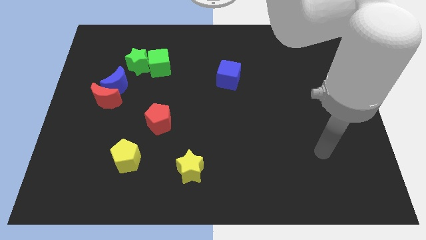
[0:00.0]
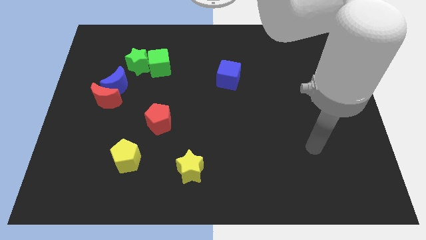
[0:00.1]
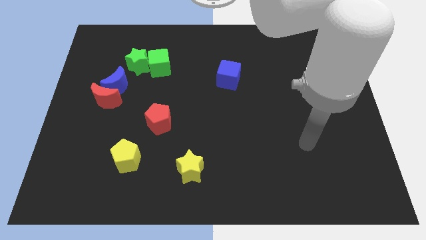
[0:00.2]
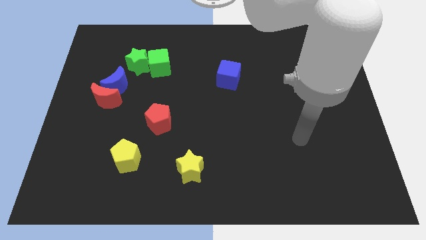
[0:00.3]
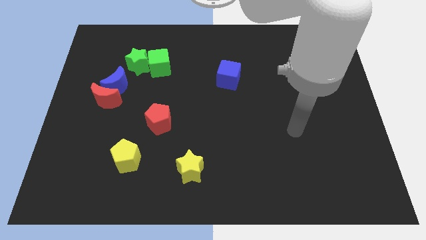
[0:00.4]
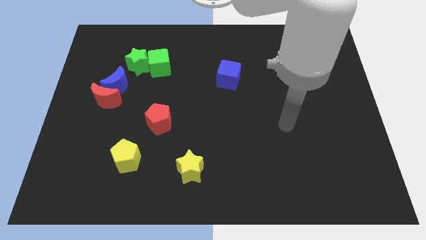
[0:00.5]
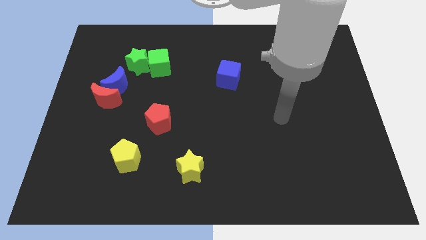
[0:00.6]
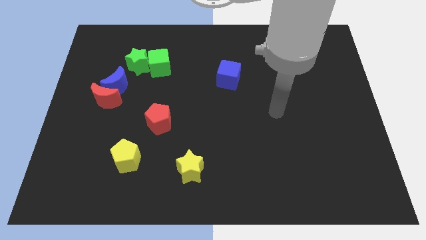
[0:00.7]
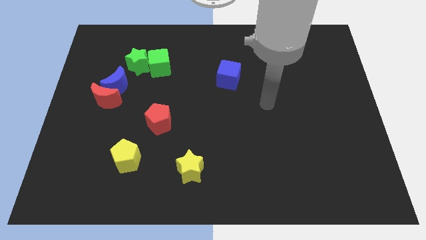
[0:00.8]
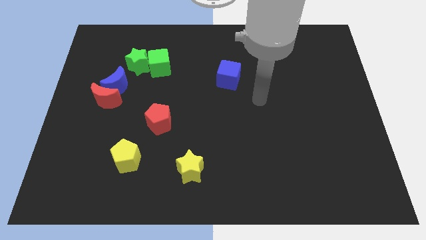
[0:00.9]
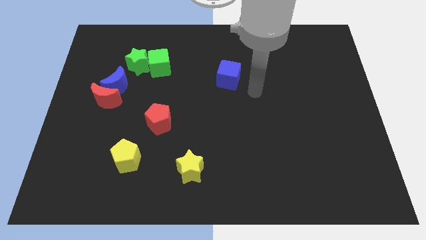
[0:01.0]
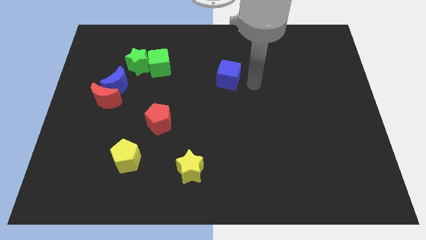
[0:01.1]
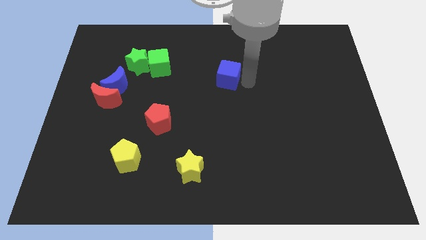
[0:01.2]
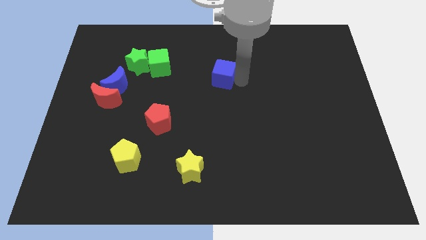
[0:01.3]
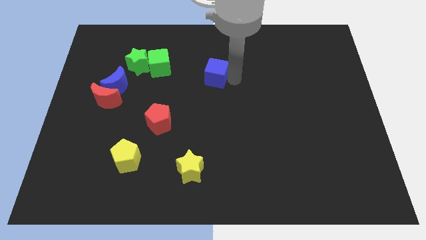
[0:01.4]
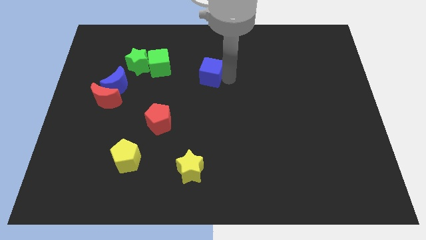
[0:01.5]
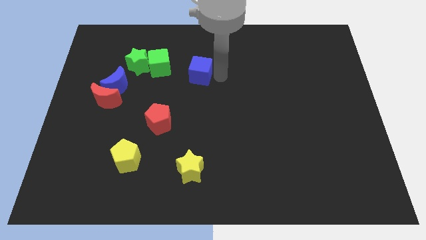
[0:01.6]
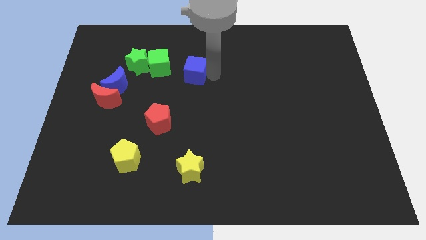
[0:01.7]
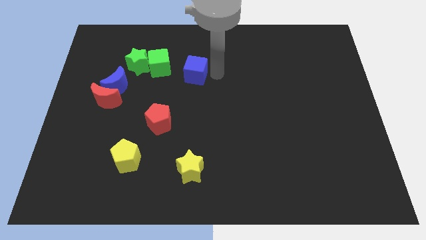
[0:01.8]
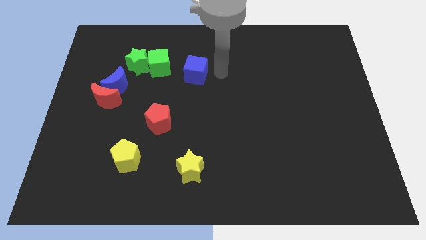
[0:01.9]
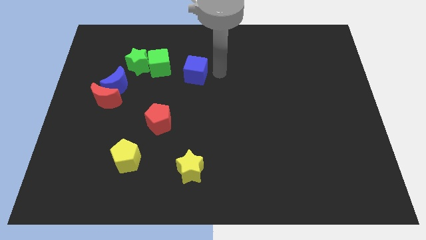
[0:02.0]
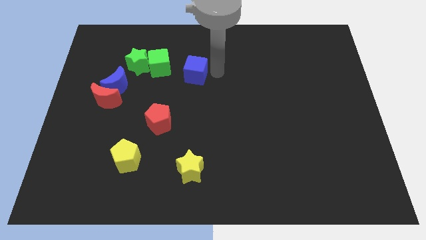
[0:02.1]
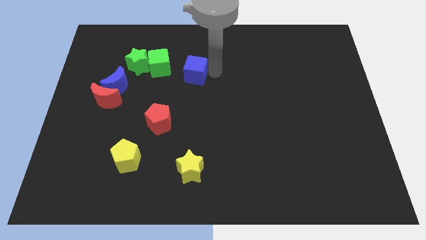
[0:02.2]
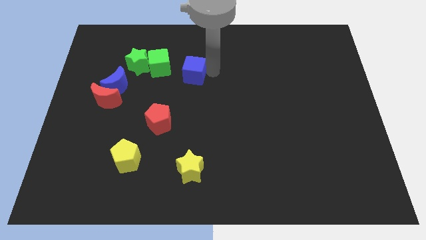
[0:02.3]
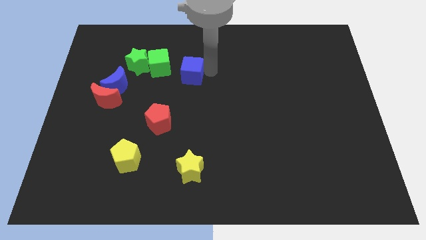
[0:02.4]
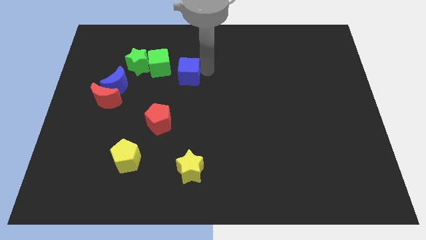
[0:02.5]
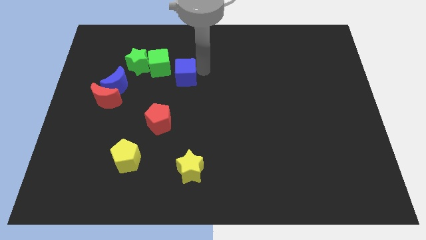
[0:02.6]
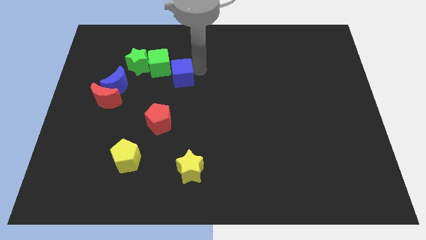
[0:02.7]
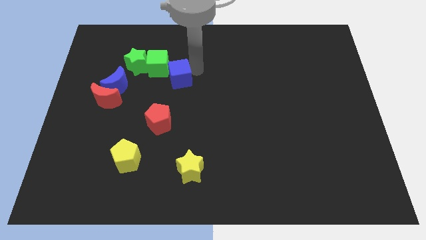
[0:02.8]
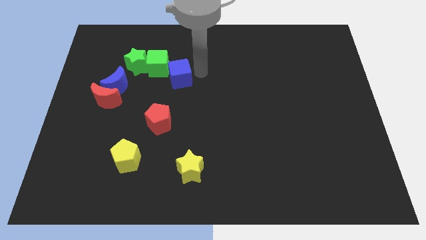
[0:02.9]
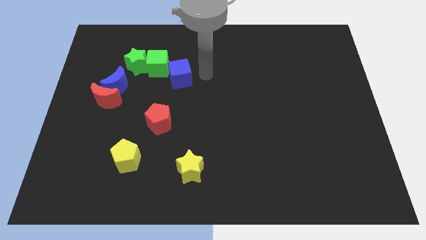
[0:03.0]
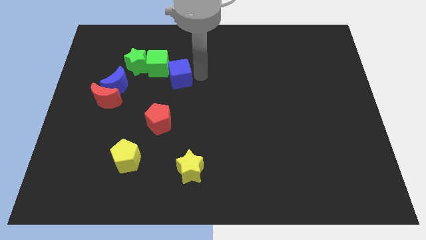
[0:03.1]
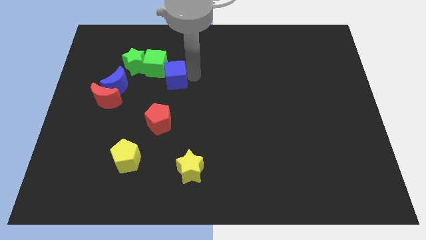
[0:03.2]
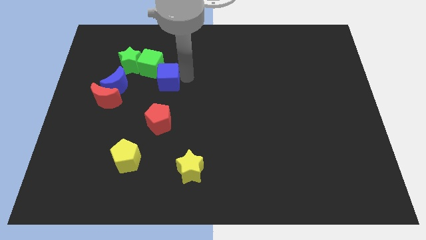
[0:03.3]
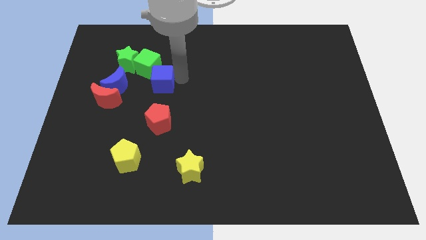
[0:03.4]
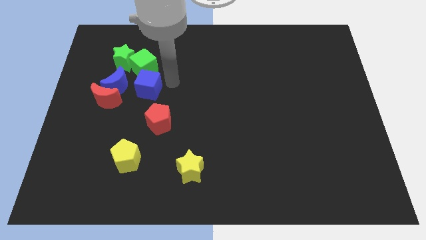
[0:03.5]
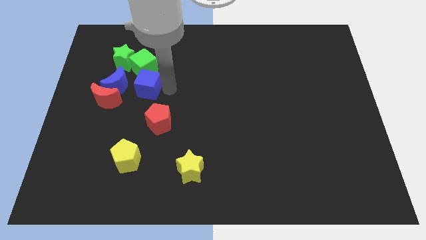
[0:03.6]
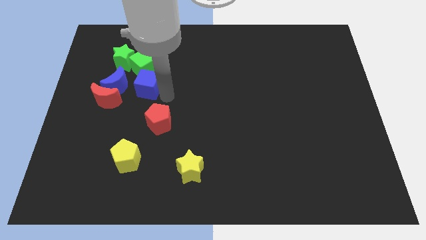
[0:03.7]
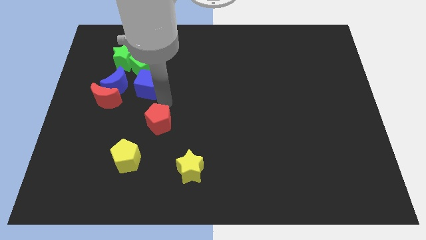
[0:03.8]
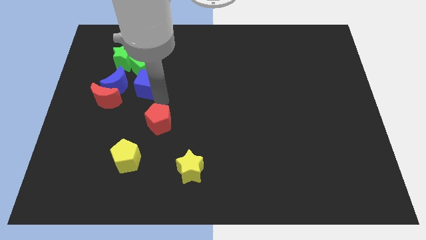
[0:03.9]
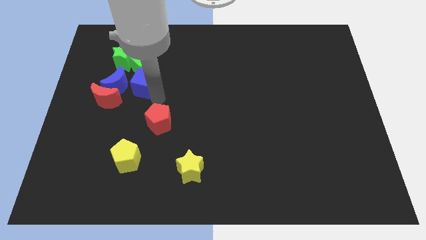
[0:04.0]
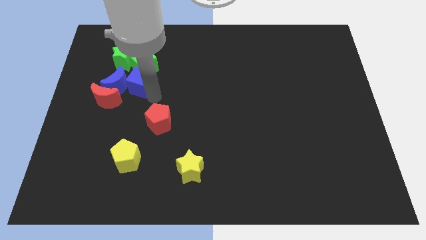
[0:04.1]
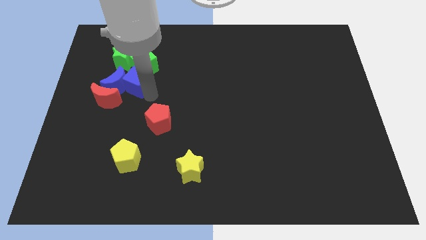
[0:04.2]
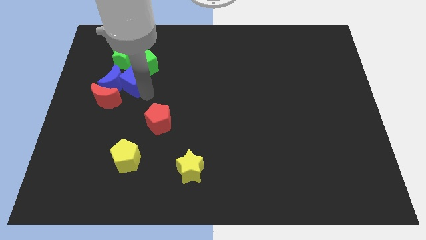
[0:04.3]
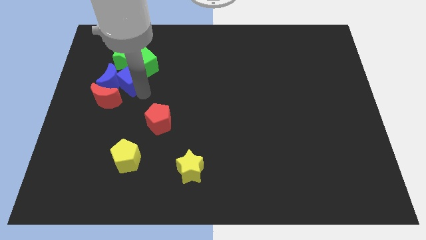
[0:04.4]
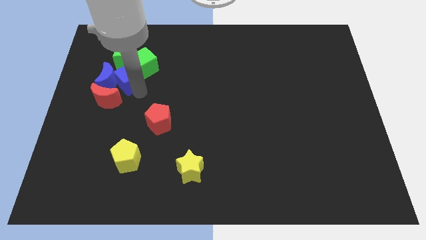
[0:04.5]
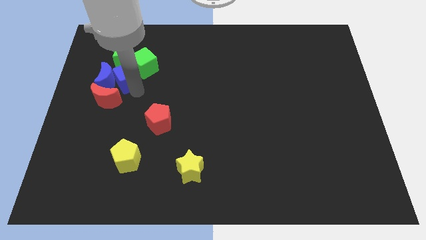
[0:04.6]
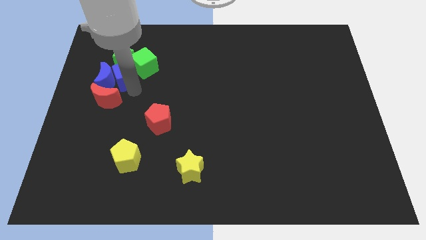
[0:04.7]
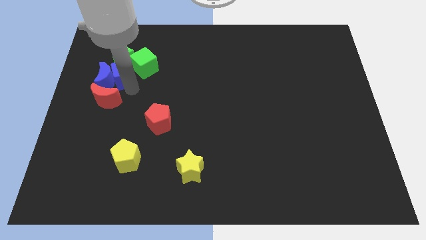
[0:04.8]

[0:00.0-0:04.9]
put the blue cube to the green star

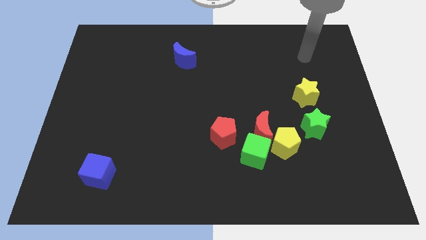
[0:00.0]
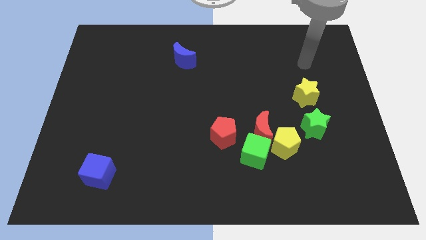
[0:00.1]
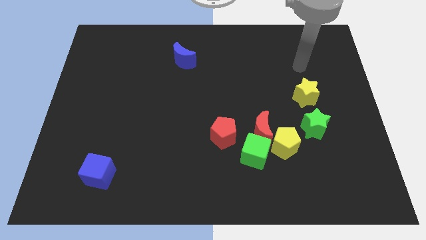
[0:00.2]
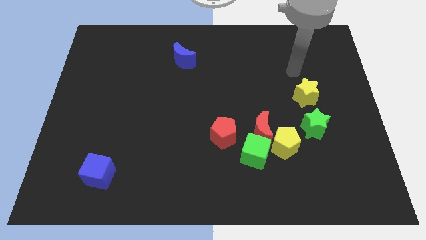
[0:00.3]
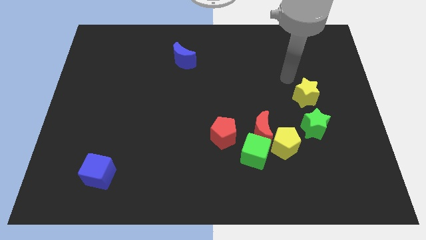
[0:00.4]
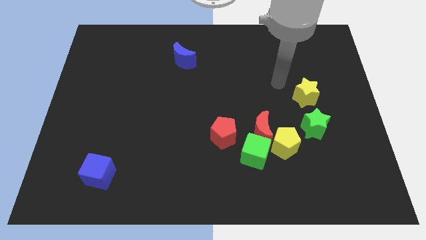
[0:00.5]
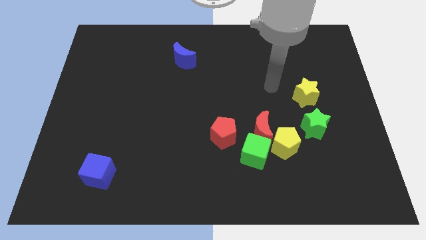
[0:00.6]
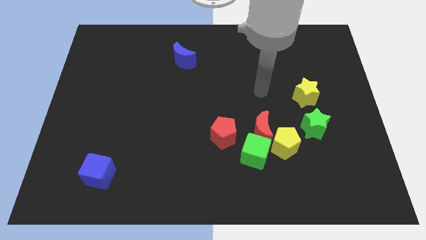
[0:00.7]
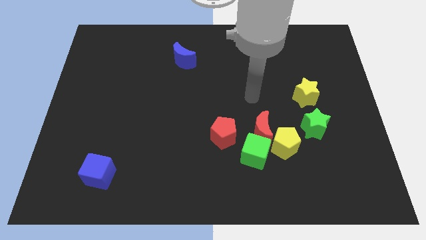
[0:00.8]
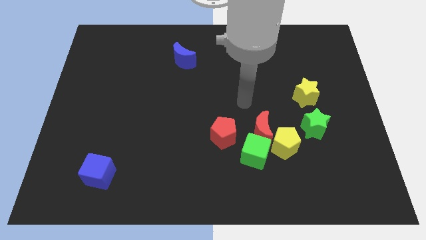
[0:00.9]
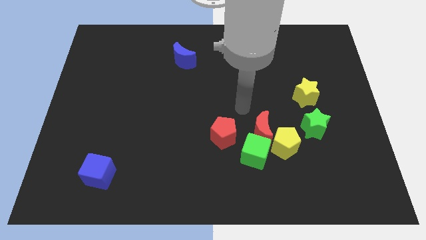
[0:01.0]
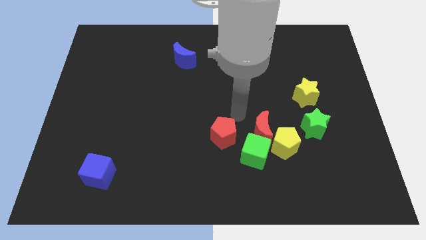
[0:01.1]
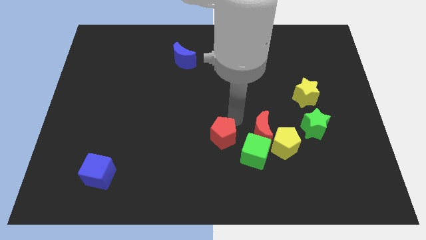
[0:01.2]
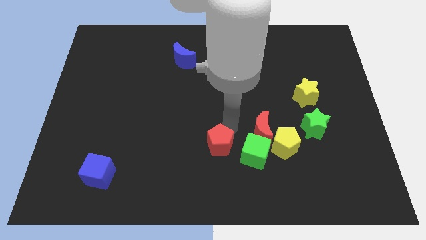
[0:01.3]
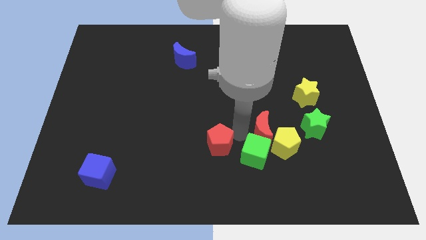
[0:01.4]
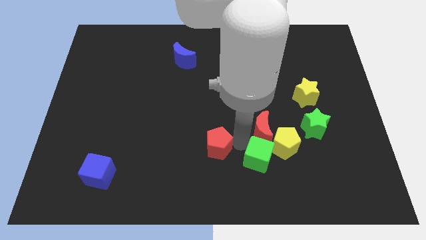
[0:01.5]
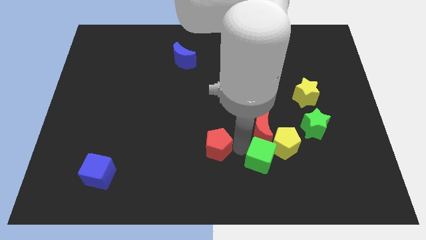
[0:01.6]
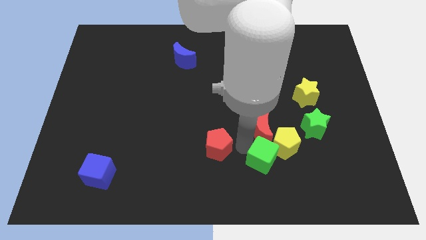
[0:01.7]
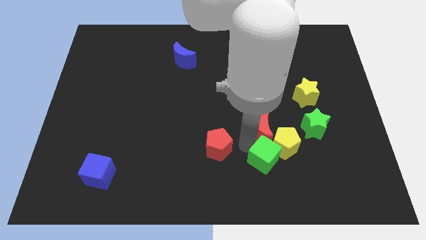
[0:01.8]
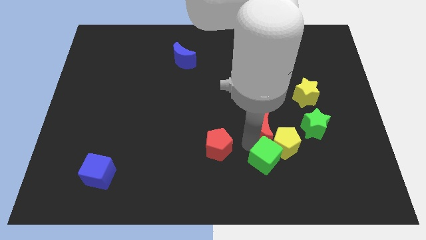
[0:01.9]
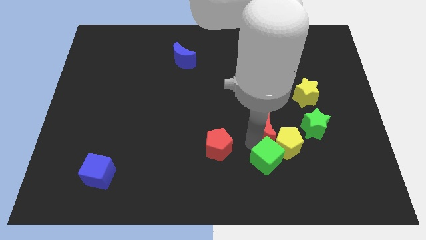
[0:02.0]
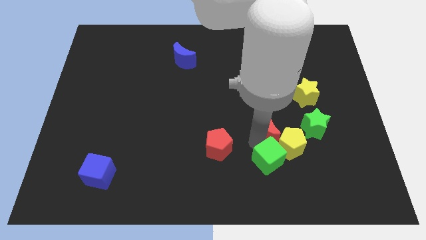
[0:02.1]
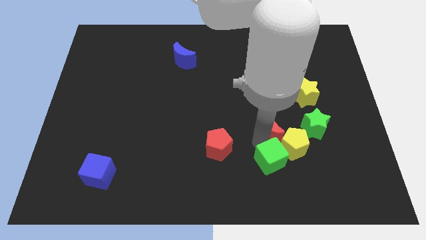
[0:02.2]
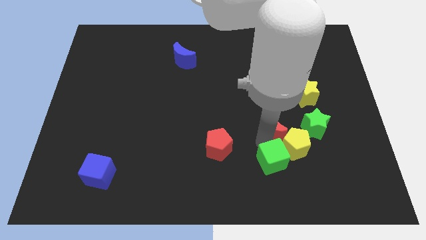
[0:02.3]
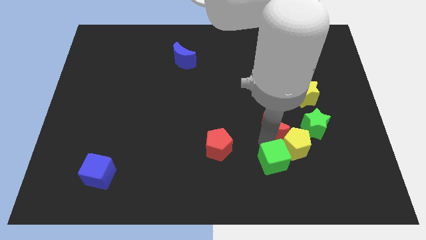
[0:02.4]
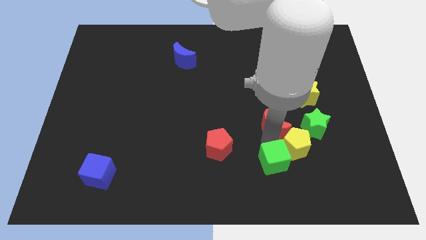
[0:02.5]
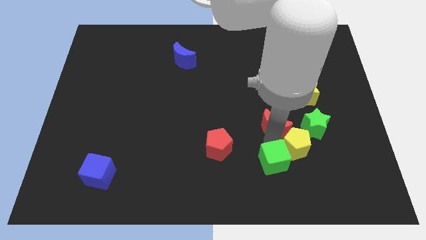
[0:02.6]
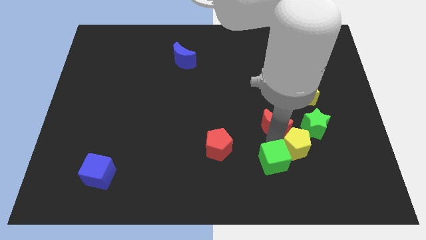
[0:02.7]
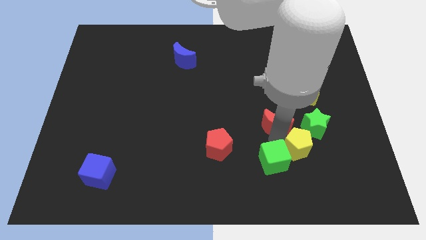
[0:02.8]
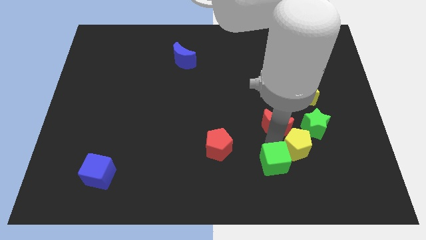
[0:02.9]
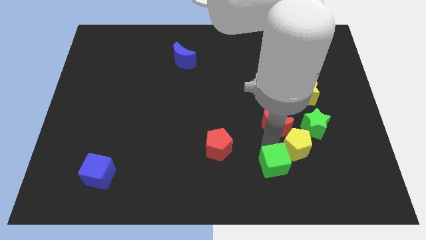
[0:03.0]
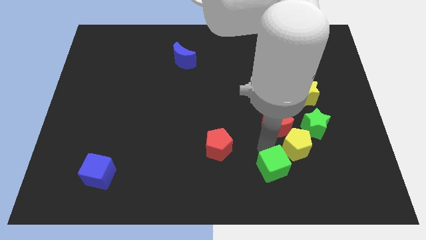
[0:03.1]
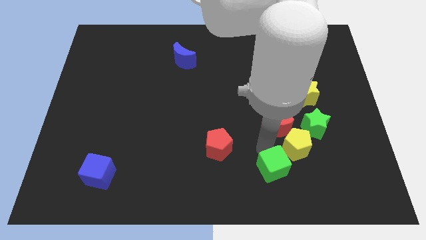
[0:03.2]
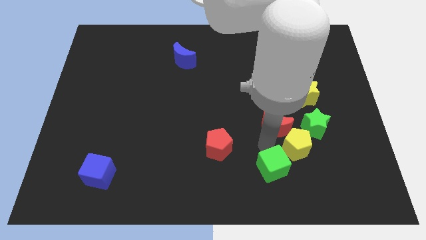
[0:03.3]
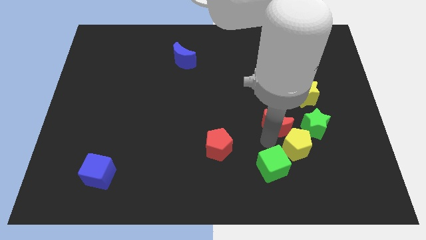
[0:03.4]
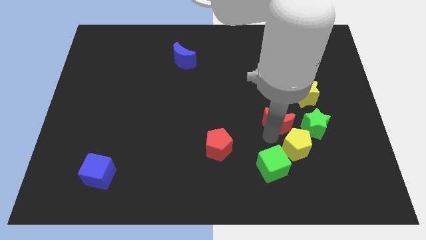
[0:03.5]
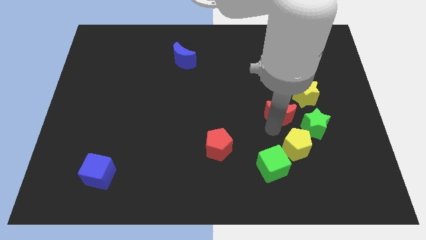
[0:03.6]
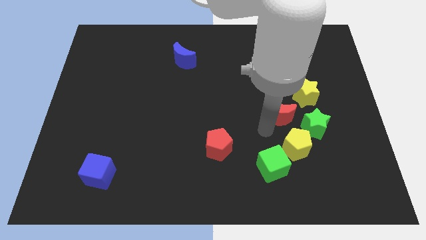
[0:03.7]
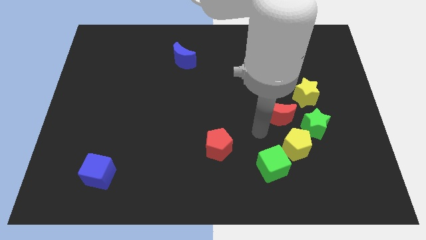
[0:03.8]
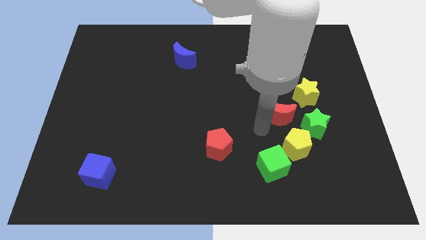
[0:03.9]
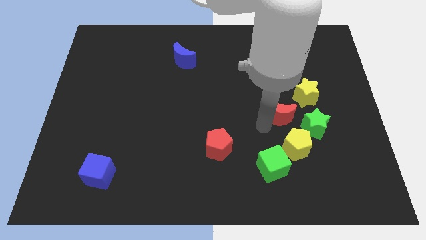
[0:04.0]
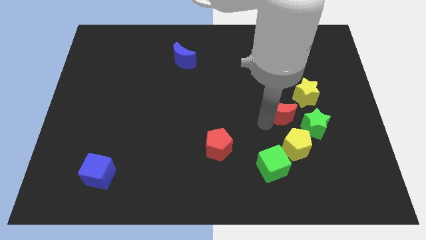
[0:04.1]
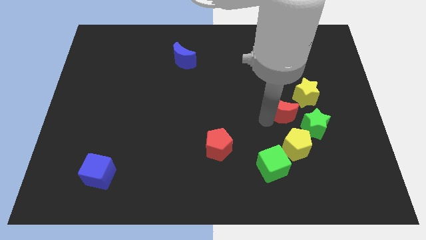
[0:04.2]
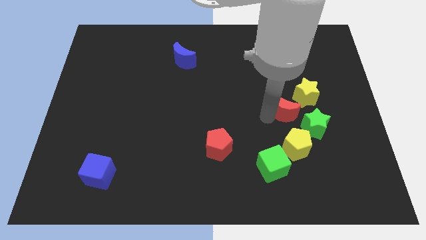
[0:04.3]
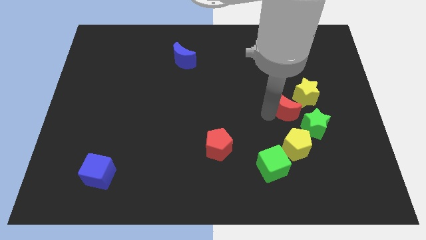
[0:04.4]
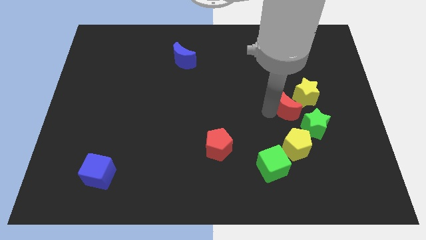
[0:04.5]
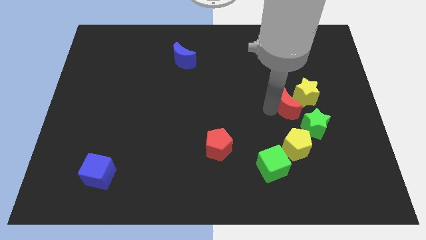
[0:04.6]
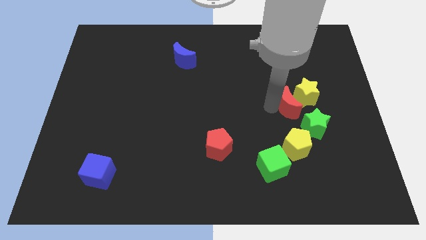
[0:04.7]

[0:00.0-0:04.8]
put the red moon close to the yellow star
